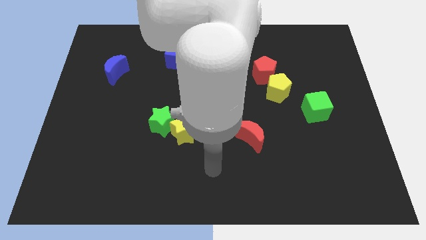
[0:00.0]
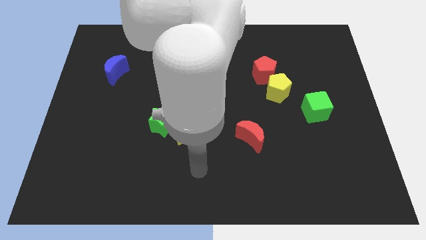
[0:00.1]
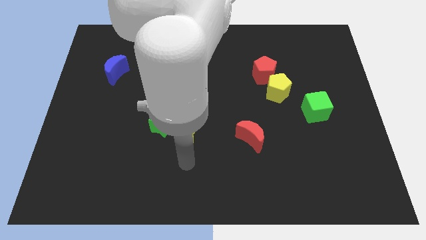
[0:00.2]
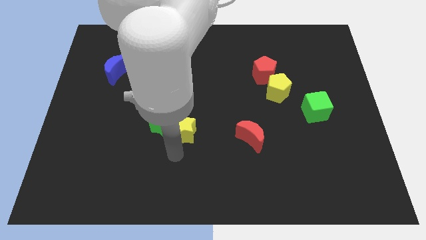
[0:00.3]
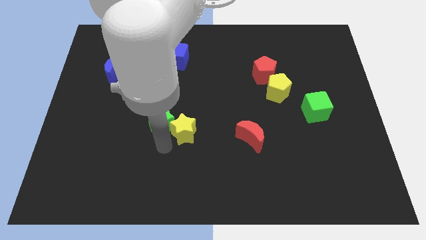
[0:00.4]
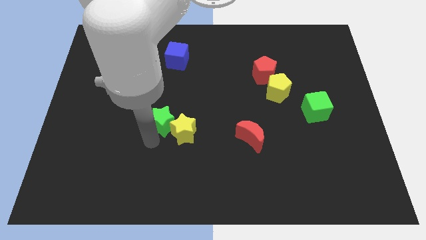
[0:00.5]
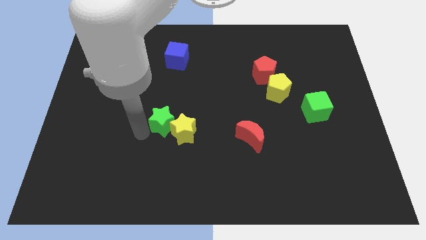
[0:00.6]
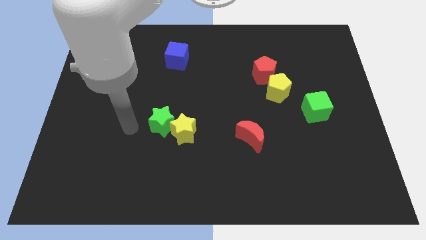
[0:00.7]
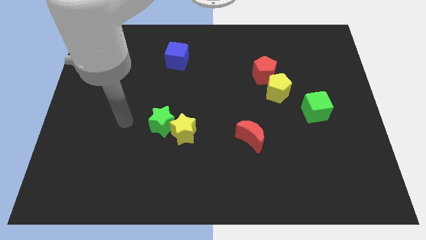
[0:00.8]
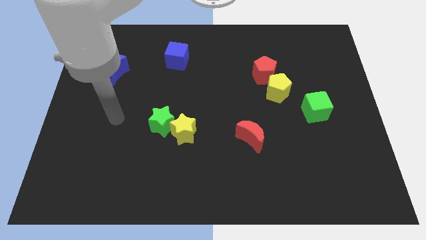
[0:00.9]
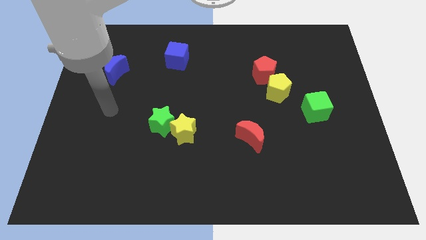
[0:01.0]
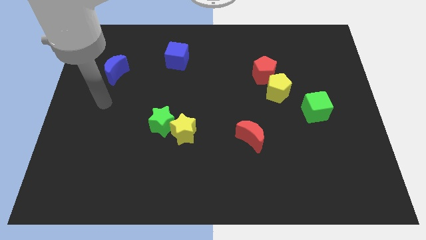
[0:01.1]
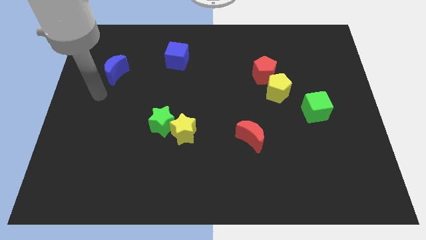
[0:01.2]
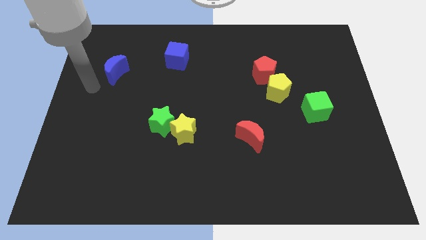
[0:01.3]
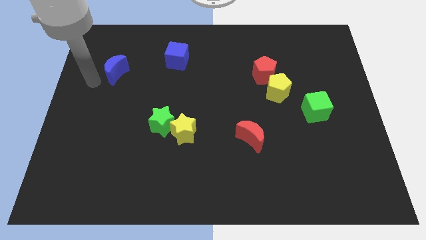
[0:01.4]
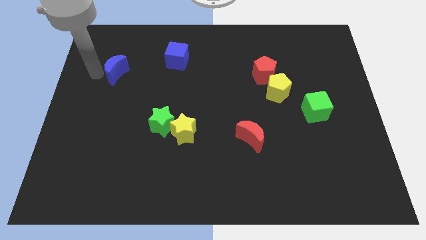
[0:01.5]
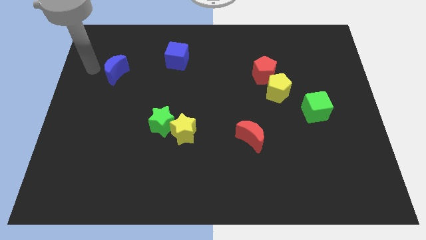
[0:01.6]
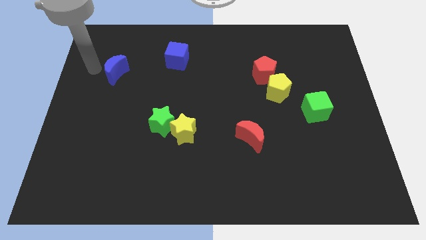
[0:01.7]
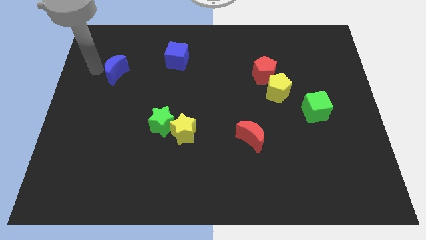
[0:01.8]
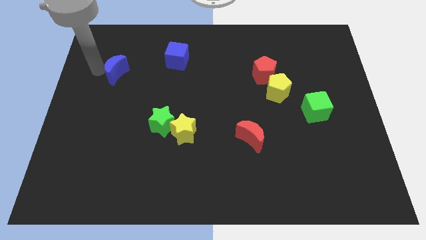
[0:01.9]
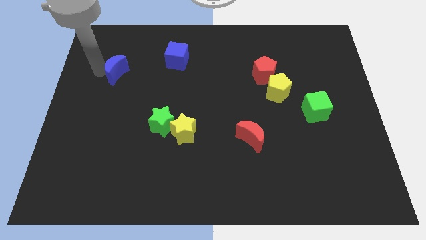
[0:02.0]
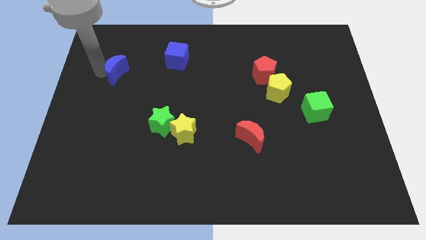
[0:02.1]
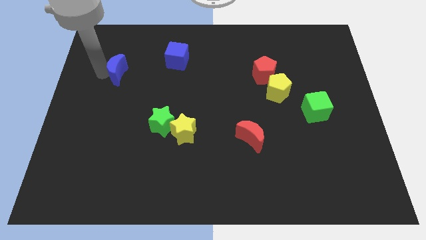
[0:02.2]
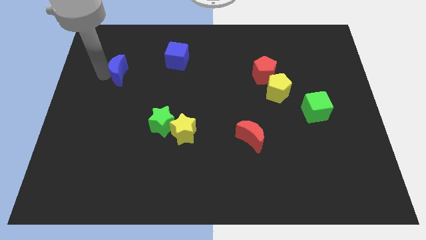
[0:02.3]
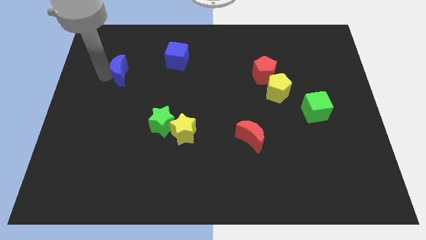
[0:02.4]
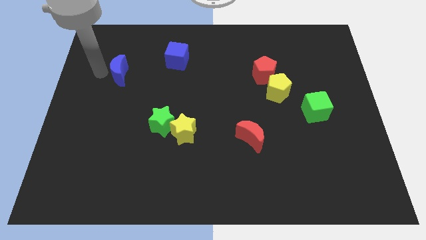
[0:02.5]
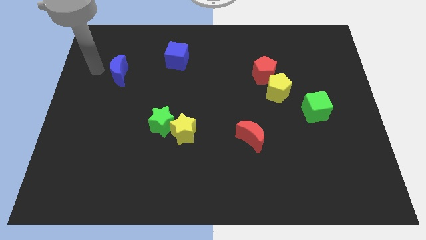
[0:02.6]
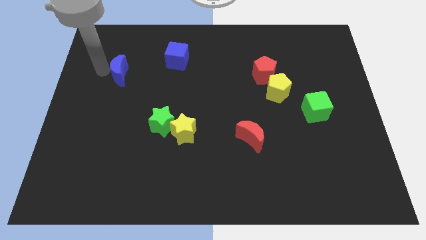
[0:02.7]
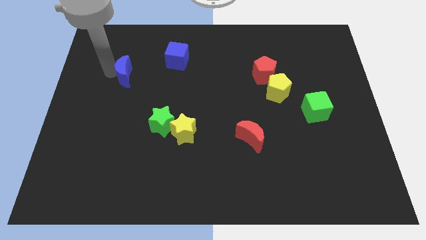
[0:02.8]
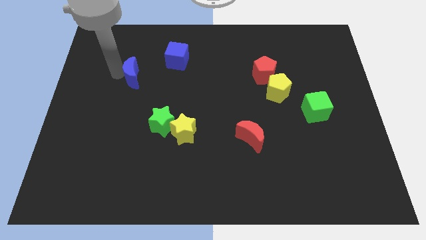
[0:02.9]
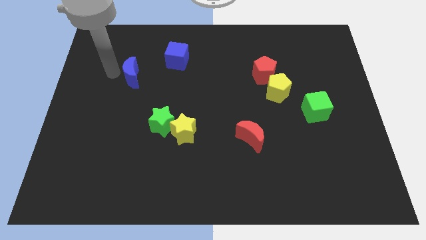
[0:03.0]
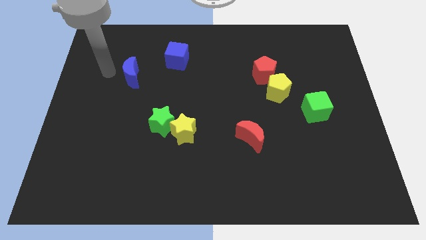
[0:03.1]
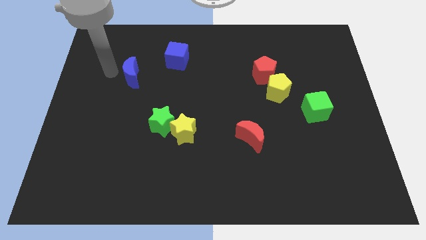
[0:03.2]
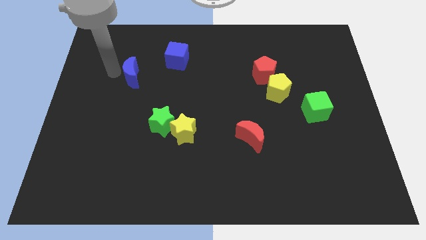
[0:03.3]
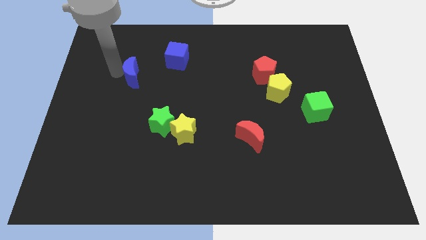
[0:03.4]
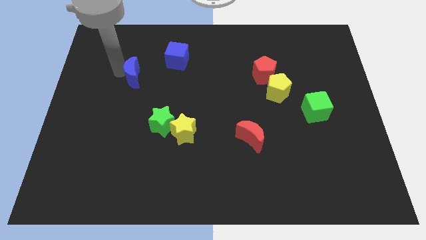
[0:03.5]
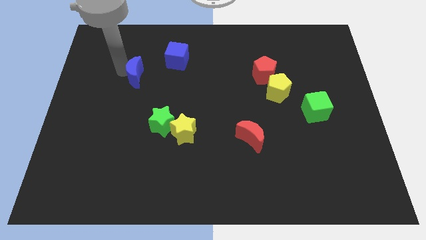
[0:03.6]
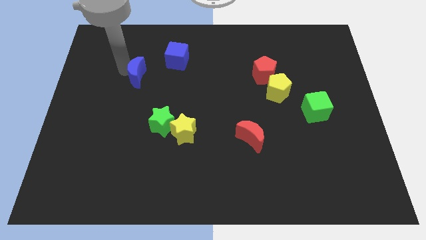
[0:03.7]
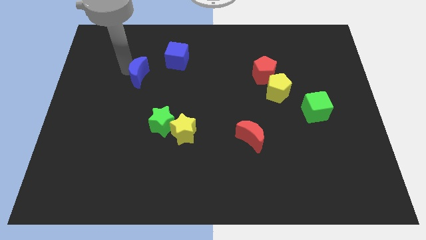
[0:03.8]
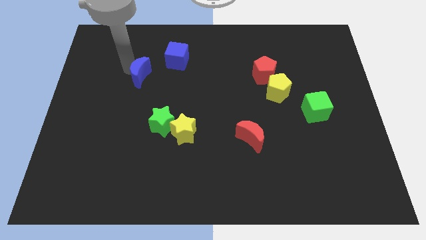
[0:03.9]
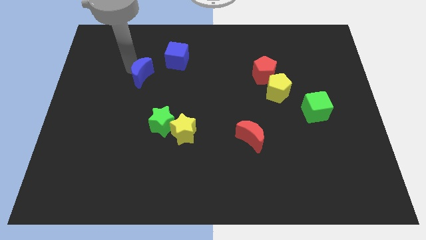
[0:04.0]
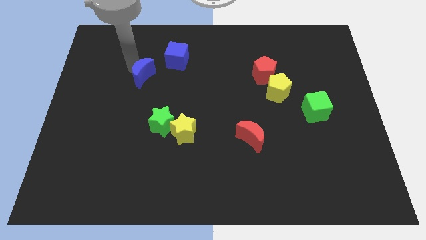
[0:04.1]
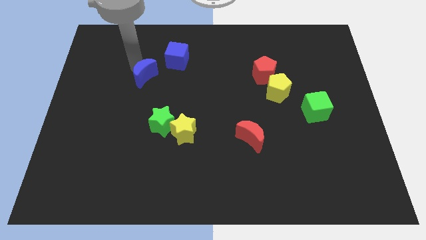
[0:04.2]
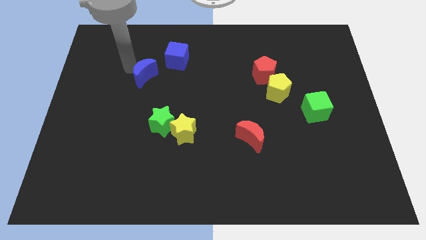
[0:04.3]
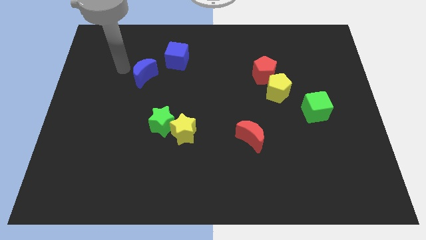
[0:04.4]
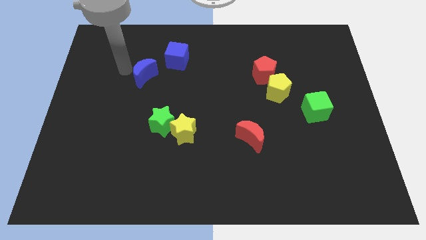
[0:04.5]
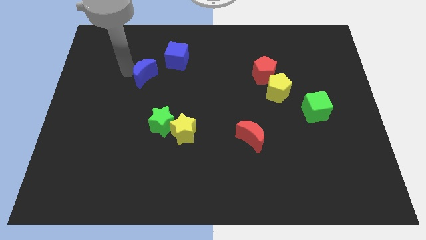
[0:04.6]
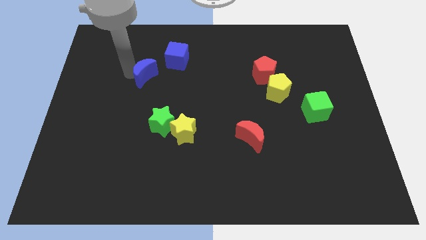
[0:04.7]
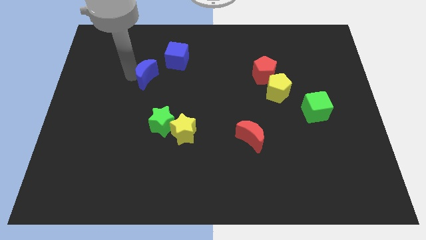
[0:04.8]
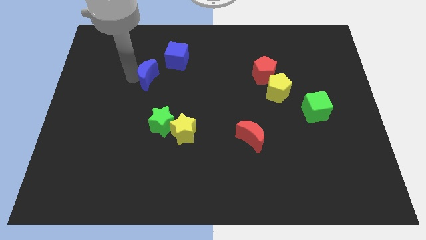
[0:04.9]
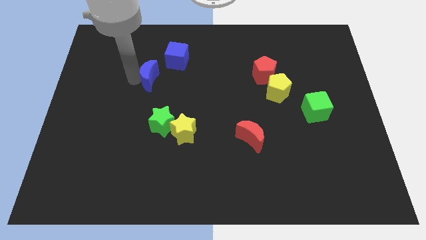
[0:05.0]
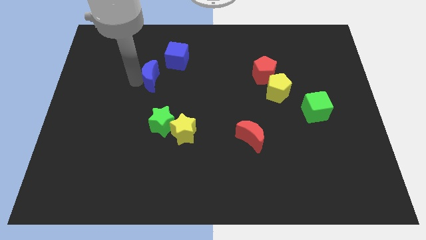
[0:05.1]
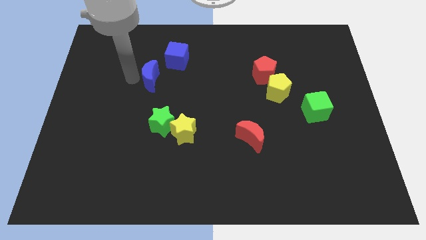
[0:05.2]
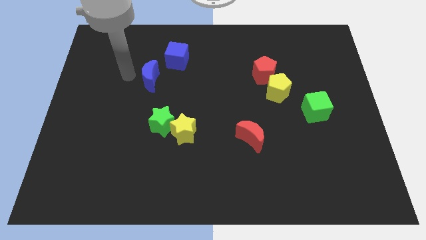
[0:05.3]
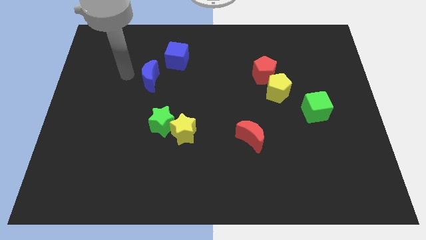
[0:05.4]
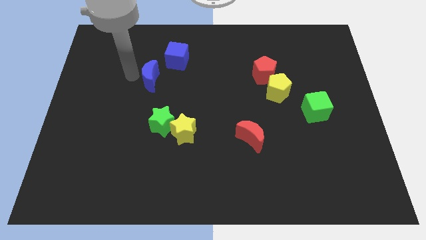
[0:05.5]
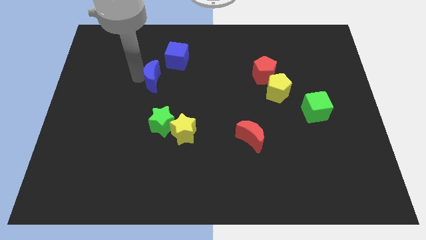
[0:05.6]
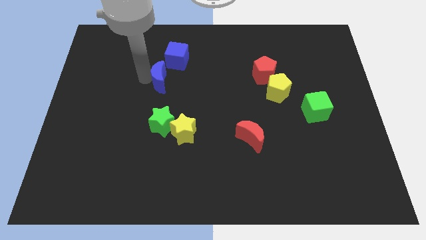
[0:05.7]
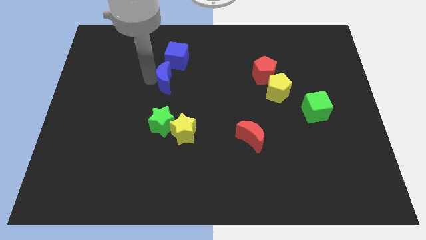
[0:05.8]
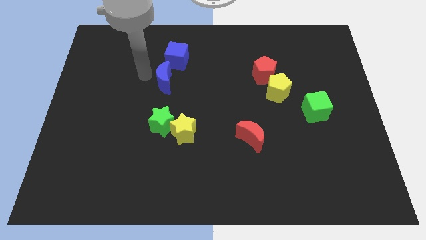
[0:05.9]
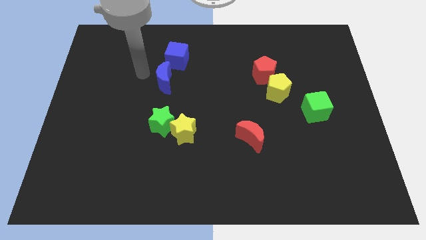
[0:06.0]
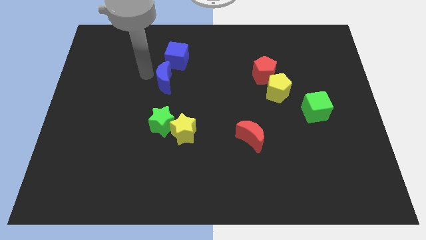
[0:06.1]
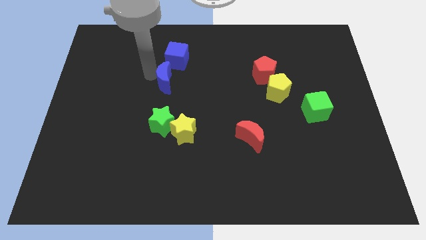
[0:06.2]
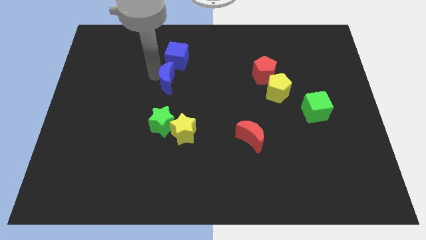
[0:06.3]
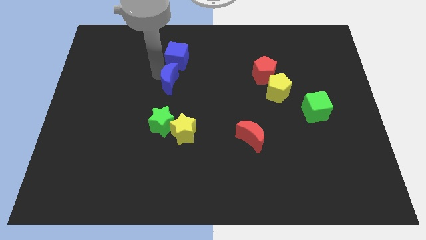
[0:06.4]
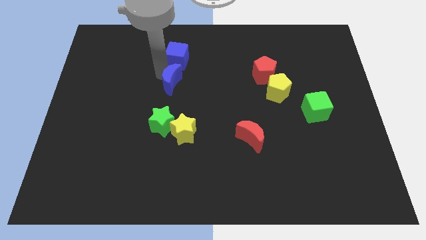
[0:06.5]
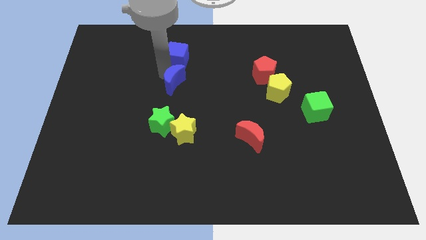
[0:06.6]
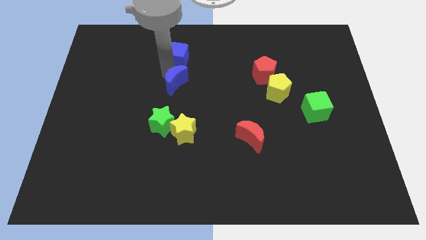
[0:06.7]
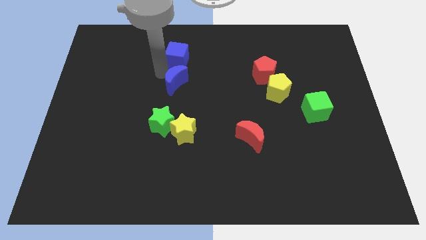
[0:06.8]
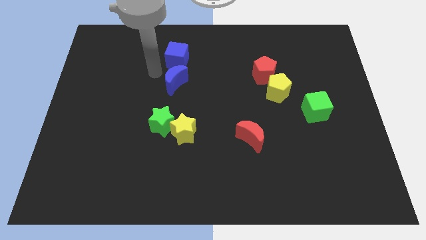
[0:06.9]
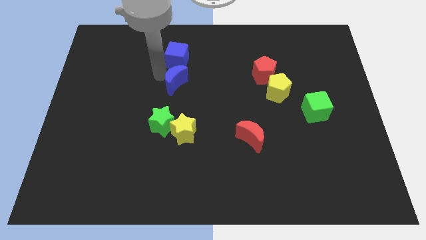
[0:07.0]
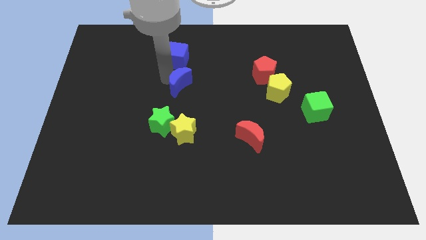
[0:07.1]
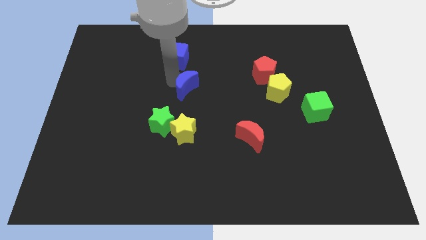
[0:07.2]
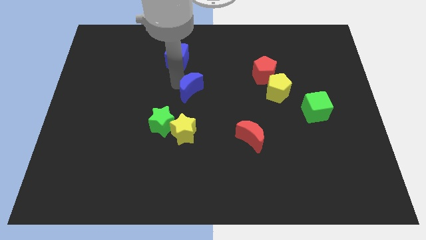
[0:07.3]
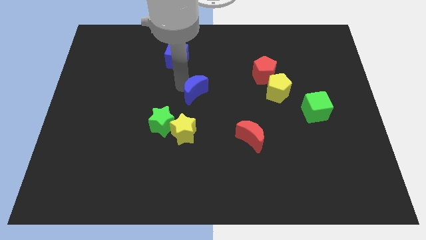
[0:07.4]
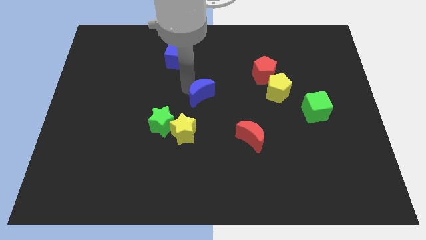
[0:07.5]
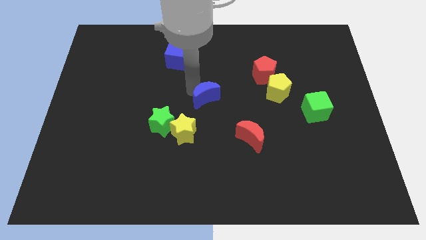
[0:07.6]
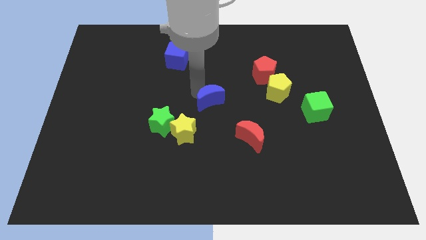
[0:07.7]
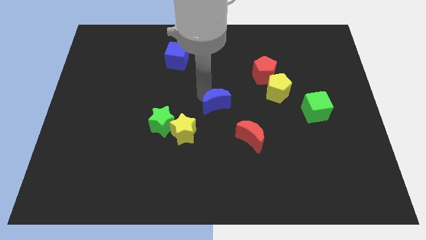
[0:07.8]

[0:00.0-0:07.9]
push the blue moon to the top left side of the red moon
